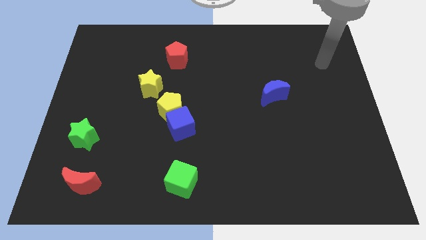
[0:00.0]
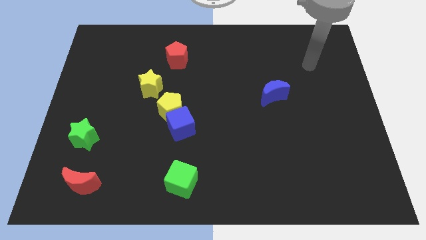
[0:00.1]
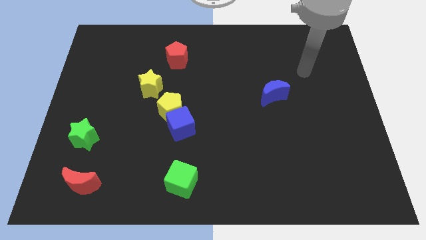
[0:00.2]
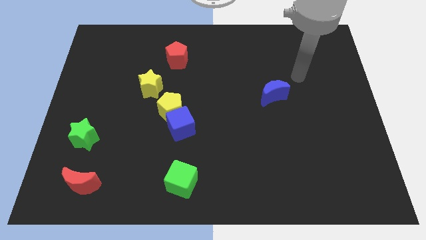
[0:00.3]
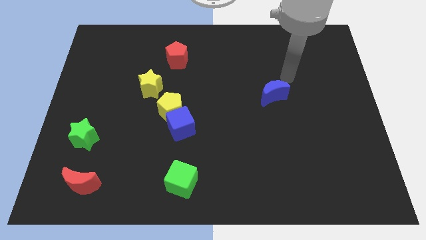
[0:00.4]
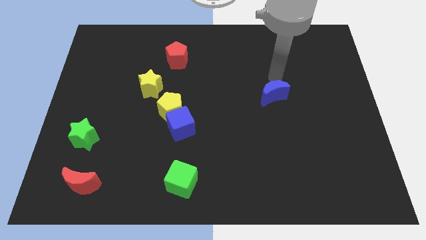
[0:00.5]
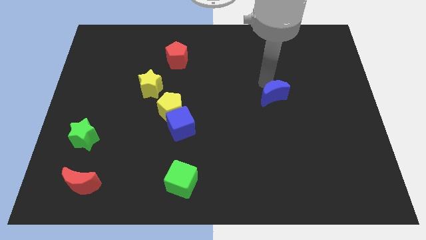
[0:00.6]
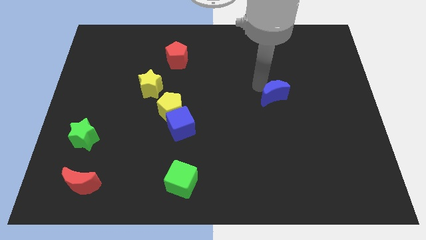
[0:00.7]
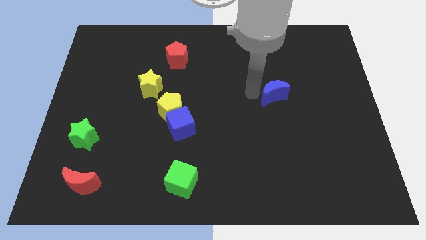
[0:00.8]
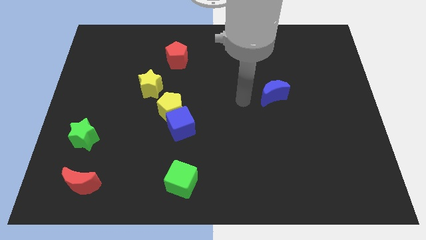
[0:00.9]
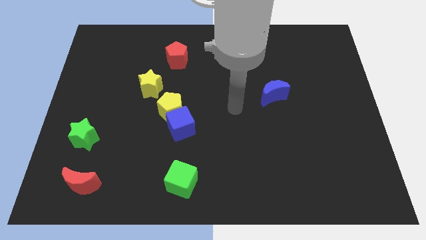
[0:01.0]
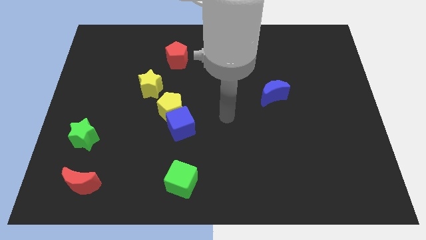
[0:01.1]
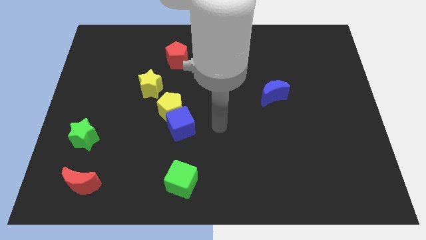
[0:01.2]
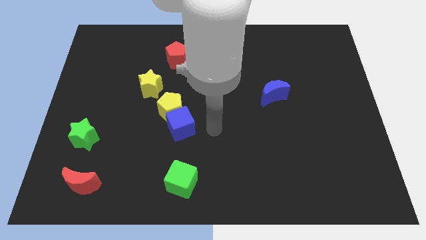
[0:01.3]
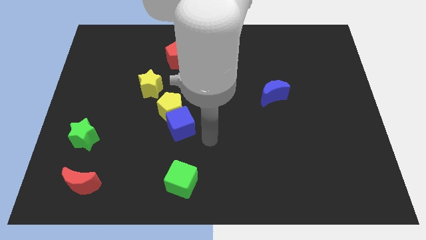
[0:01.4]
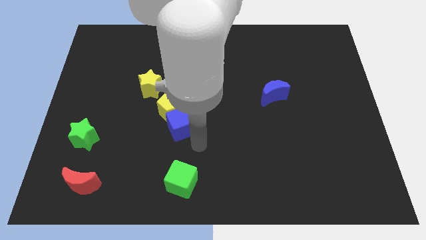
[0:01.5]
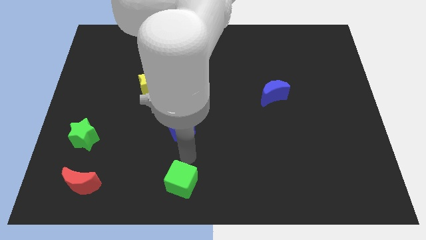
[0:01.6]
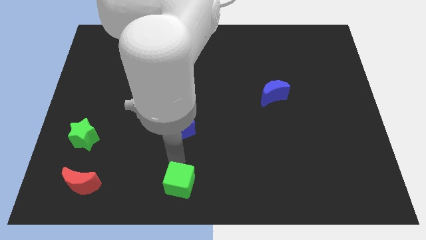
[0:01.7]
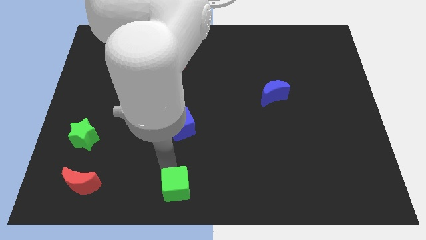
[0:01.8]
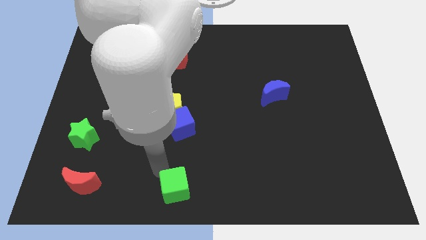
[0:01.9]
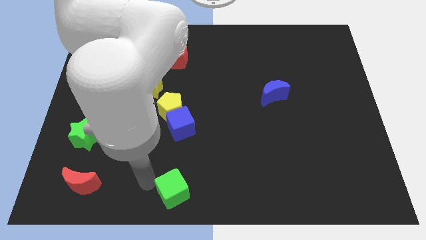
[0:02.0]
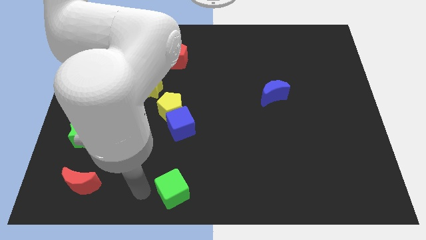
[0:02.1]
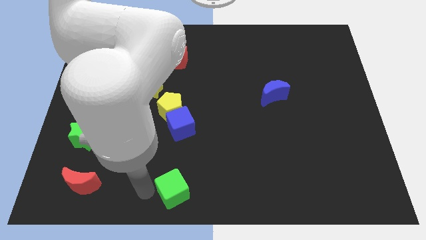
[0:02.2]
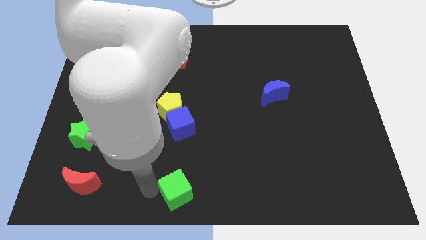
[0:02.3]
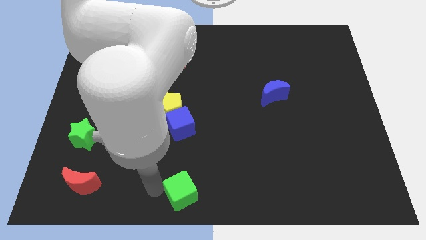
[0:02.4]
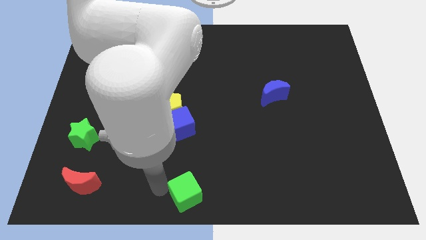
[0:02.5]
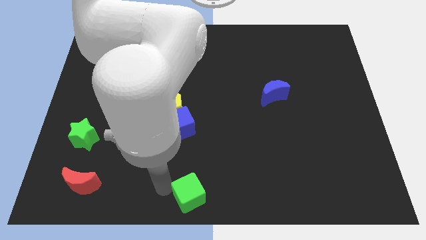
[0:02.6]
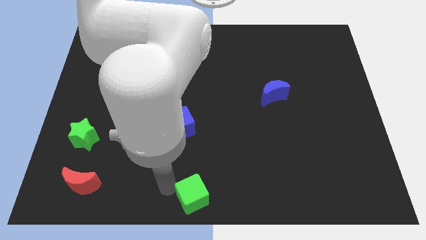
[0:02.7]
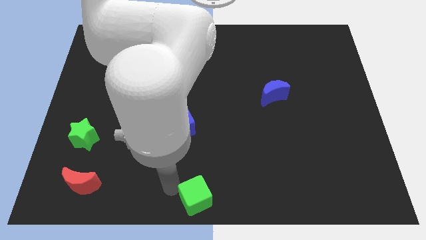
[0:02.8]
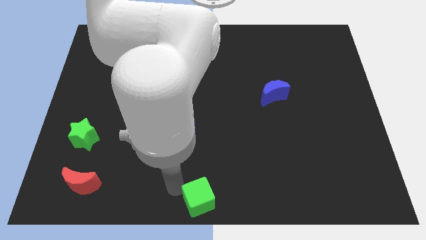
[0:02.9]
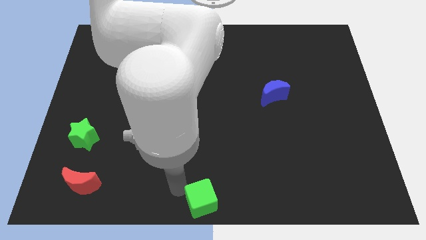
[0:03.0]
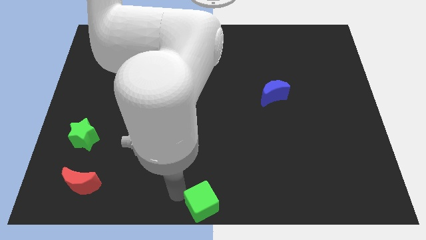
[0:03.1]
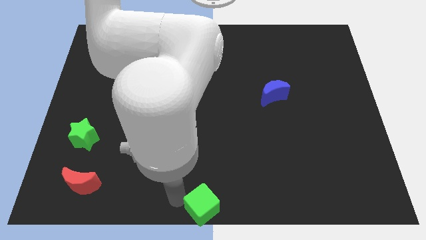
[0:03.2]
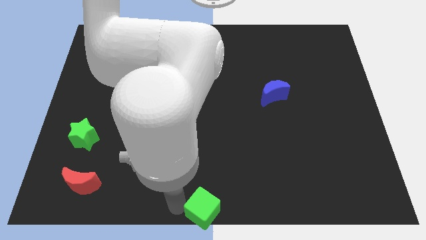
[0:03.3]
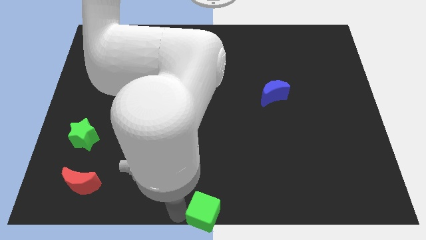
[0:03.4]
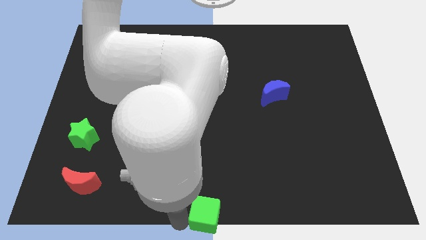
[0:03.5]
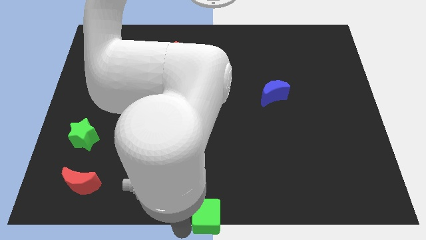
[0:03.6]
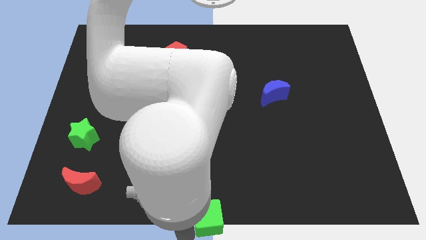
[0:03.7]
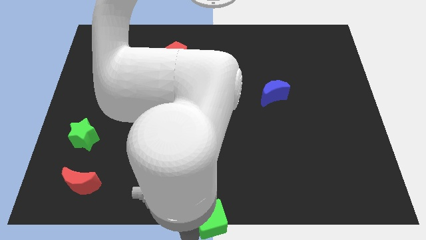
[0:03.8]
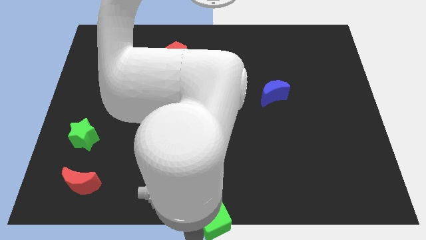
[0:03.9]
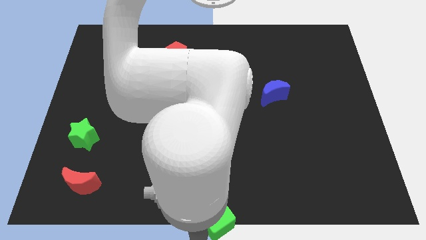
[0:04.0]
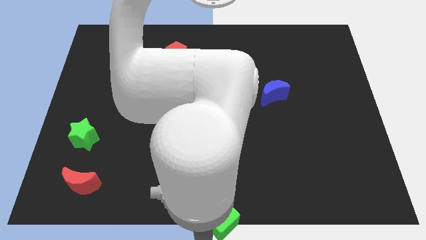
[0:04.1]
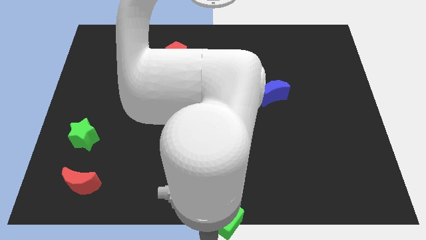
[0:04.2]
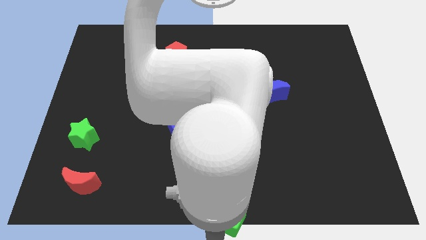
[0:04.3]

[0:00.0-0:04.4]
move the green cube a little to the right

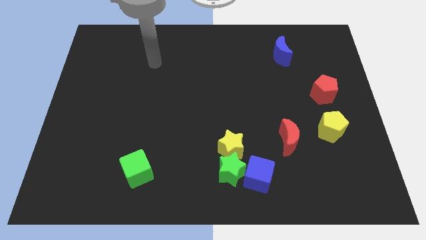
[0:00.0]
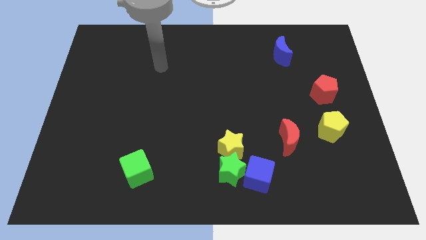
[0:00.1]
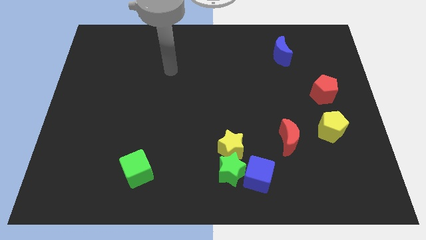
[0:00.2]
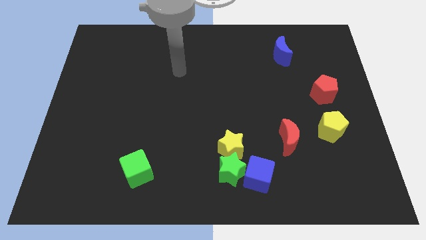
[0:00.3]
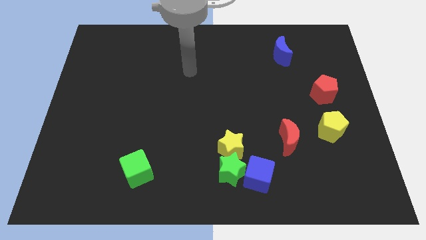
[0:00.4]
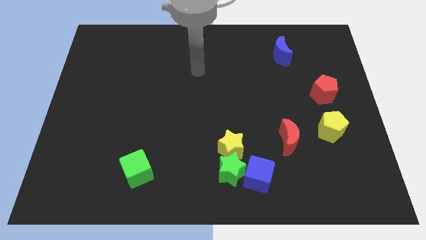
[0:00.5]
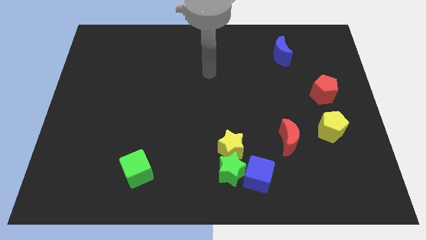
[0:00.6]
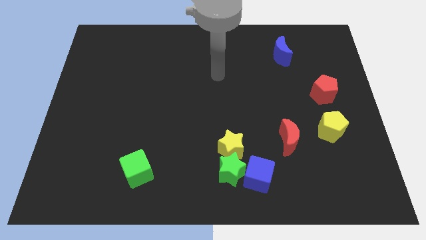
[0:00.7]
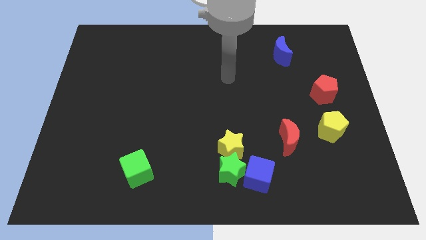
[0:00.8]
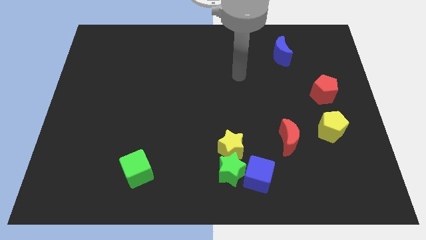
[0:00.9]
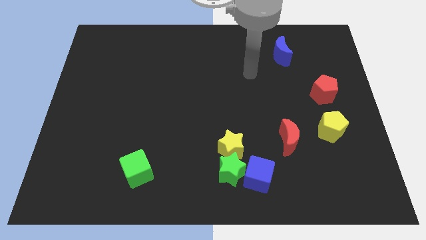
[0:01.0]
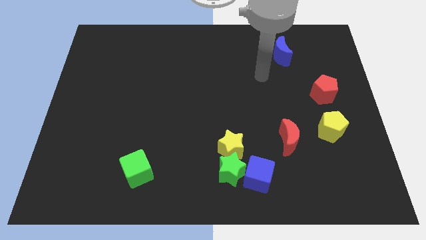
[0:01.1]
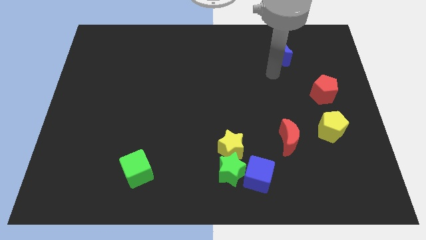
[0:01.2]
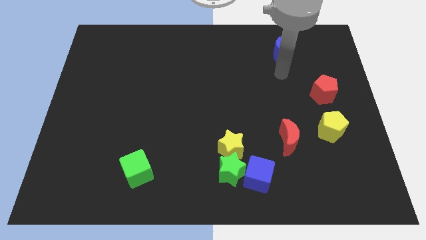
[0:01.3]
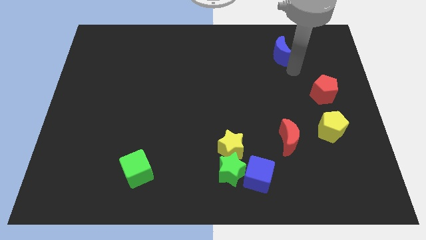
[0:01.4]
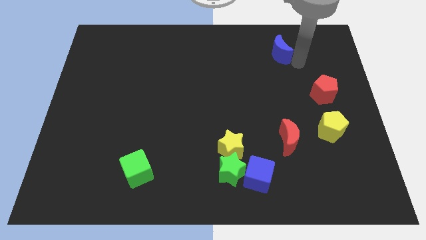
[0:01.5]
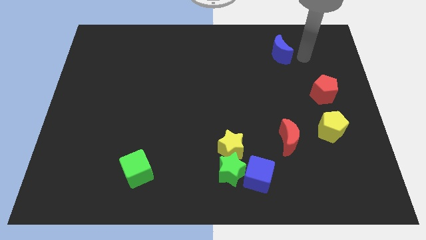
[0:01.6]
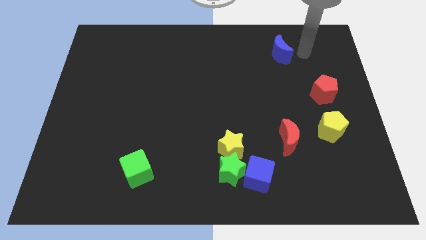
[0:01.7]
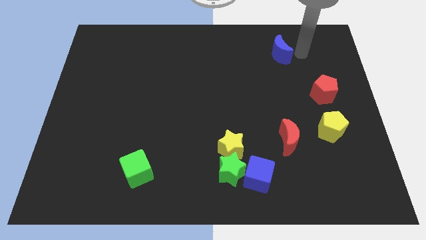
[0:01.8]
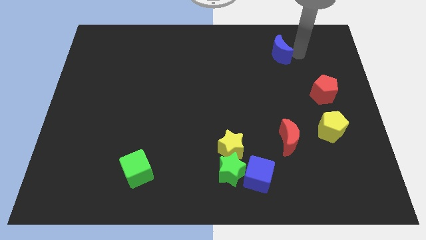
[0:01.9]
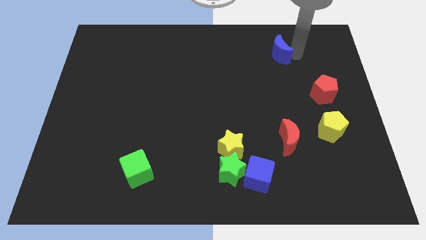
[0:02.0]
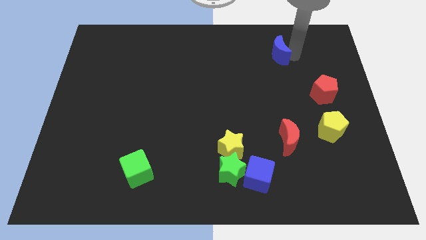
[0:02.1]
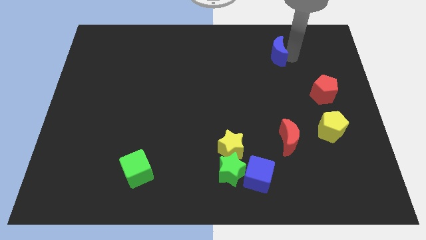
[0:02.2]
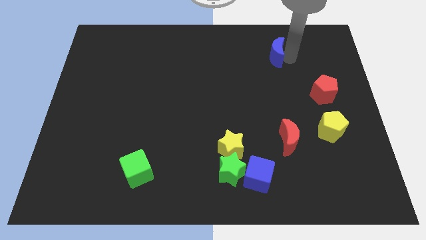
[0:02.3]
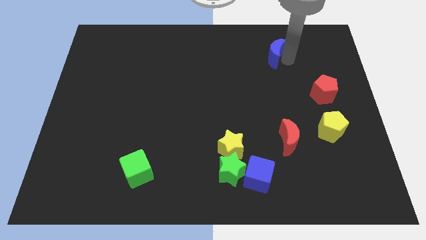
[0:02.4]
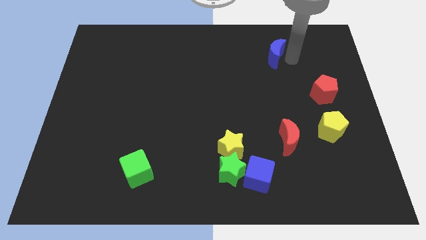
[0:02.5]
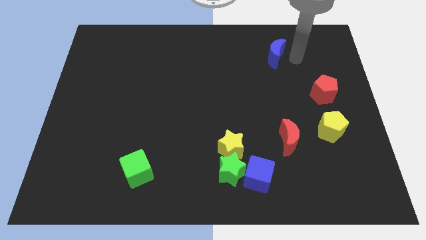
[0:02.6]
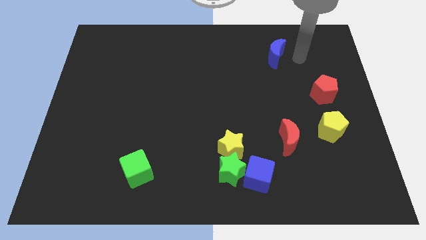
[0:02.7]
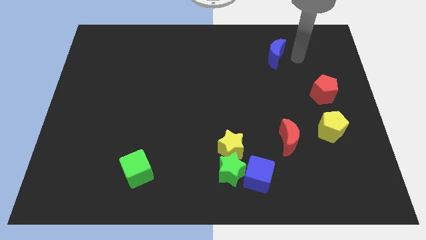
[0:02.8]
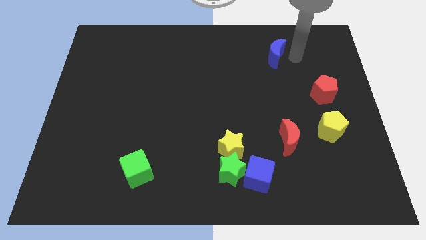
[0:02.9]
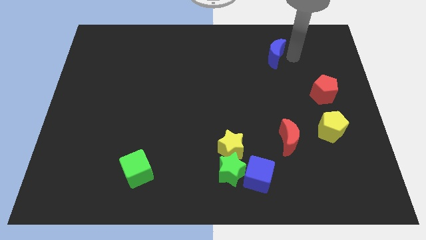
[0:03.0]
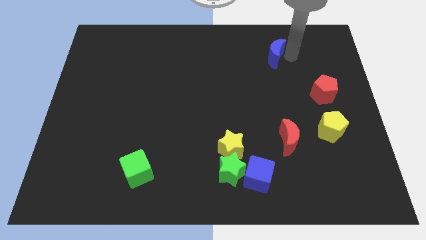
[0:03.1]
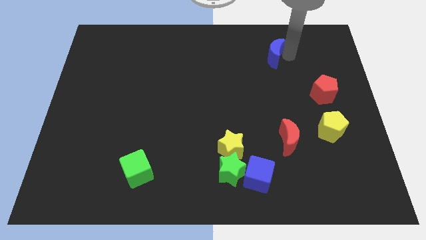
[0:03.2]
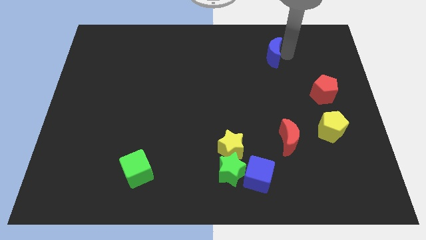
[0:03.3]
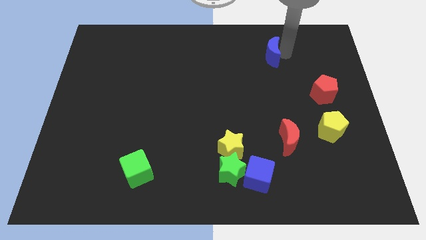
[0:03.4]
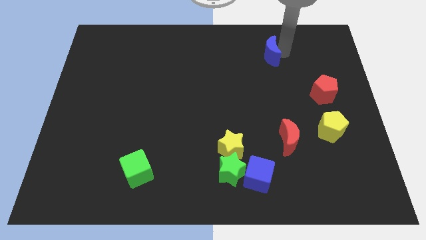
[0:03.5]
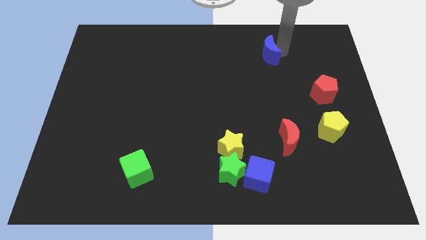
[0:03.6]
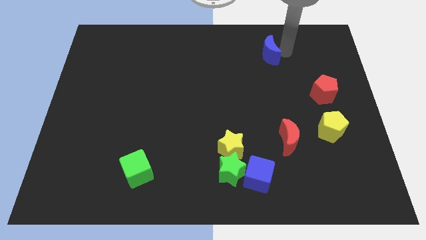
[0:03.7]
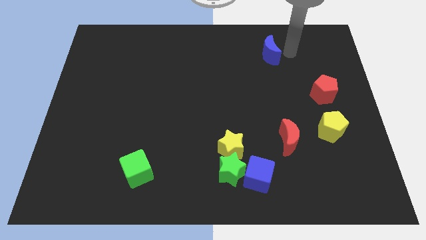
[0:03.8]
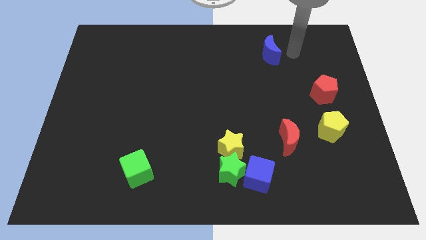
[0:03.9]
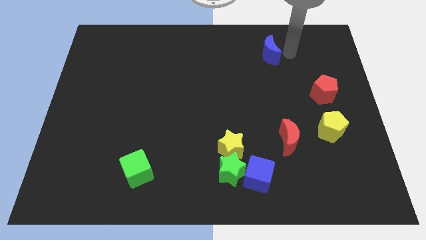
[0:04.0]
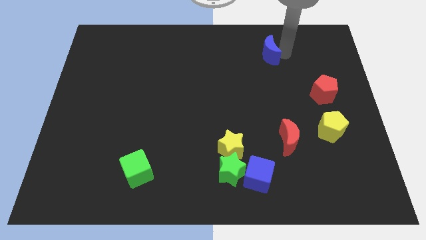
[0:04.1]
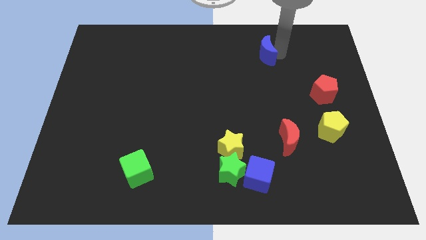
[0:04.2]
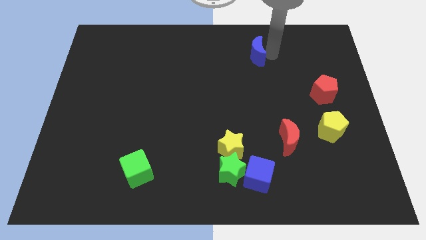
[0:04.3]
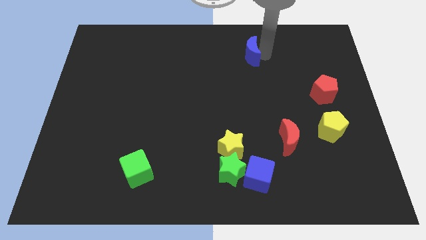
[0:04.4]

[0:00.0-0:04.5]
move the blue moon to the left somewhat
